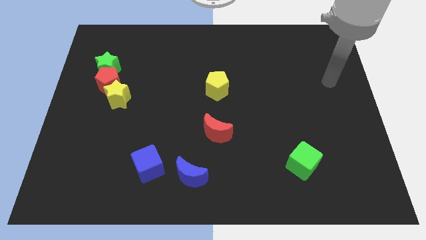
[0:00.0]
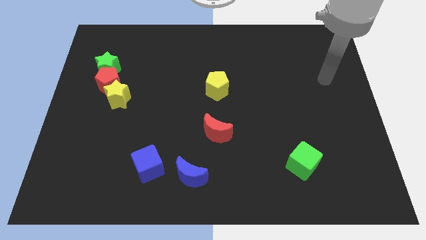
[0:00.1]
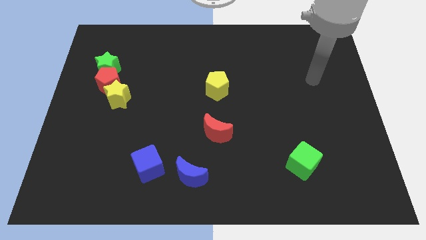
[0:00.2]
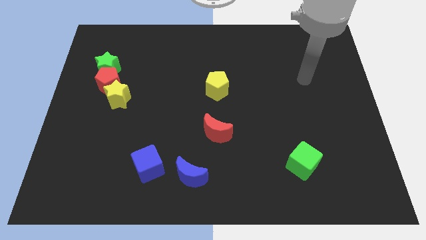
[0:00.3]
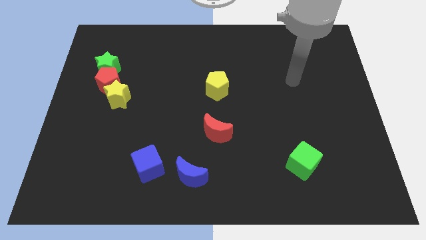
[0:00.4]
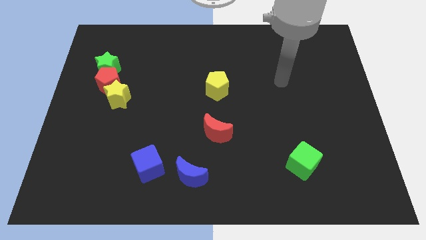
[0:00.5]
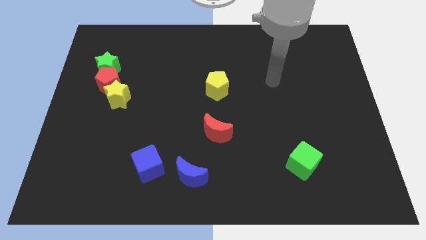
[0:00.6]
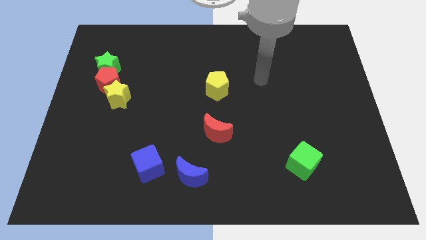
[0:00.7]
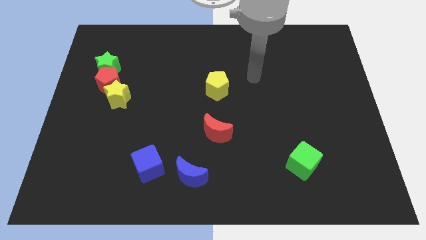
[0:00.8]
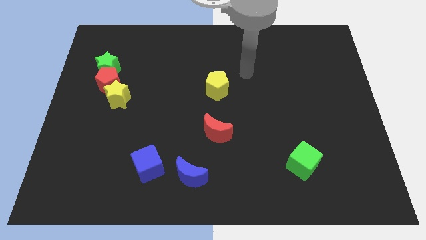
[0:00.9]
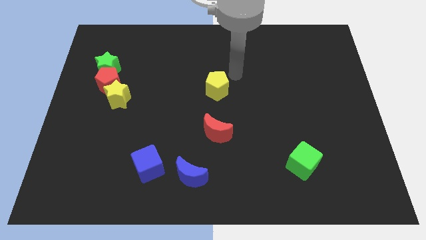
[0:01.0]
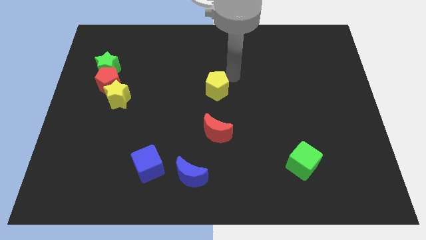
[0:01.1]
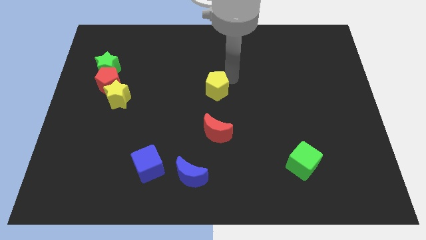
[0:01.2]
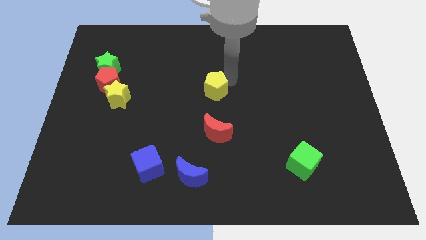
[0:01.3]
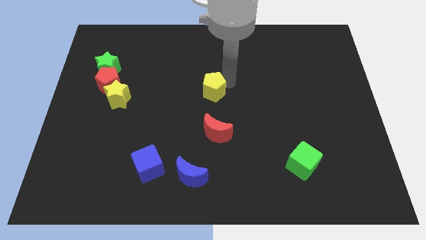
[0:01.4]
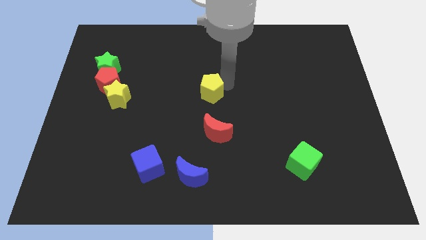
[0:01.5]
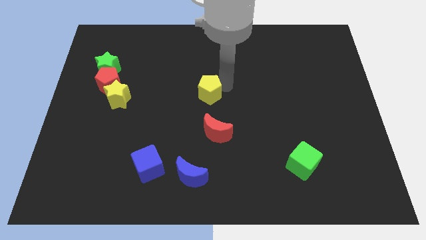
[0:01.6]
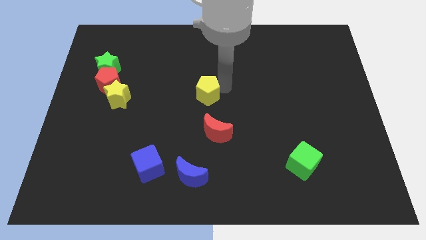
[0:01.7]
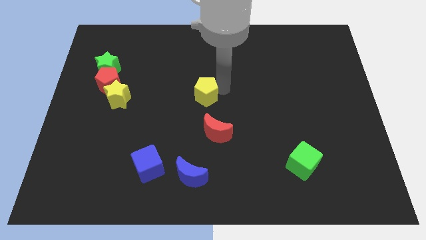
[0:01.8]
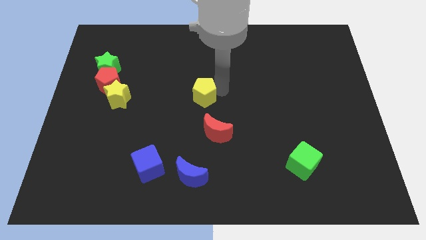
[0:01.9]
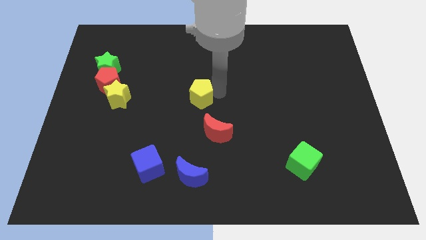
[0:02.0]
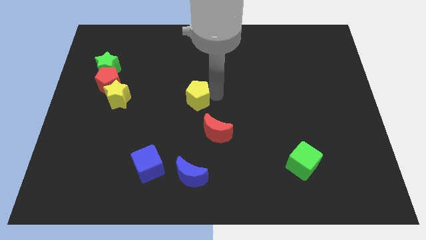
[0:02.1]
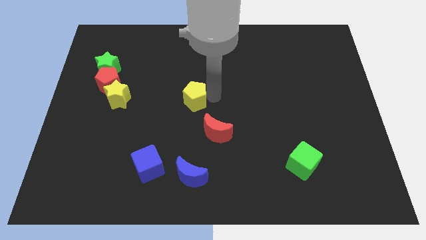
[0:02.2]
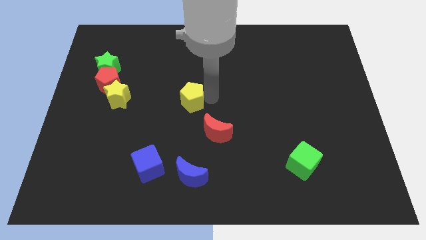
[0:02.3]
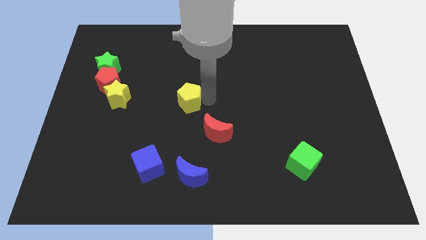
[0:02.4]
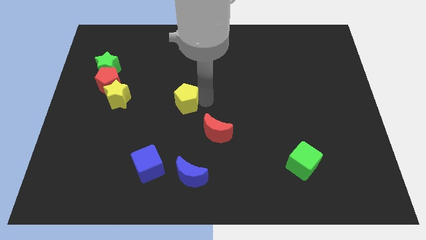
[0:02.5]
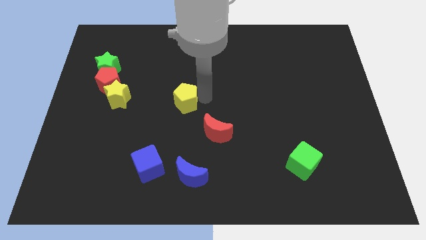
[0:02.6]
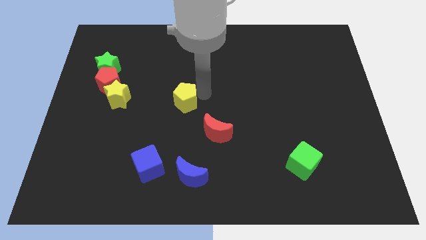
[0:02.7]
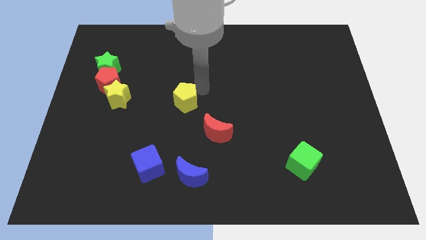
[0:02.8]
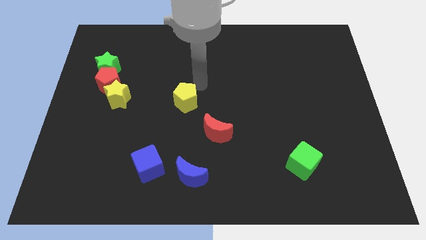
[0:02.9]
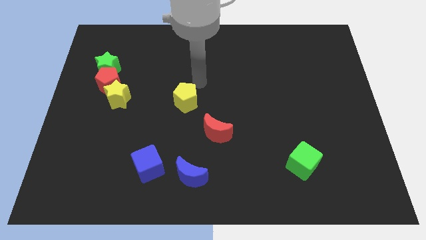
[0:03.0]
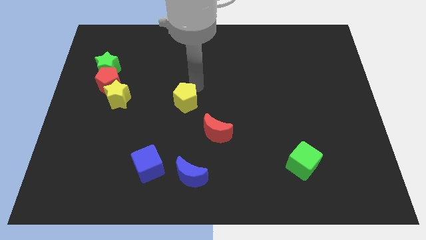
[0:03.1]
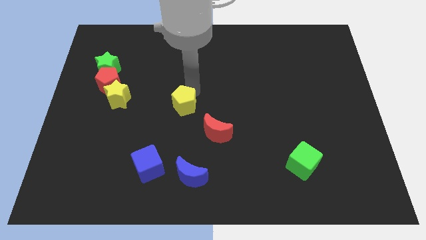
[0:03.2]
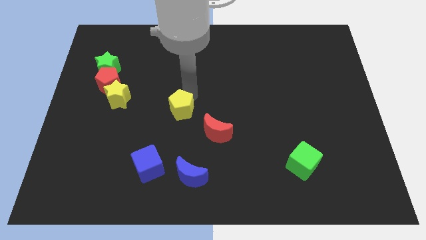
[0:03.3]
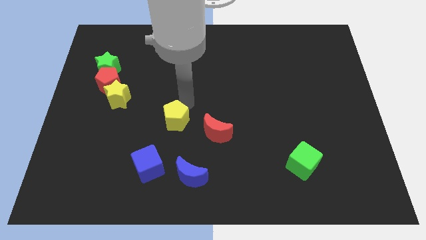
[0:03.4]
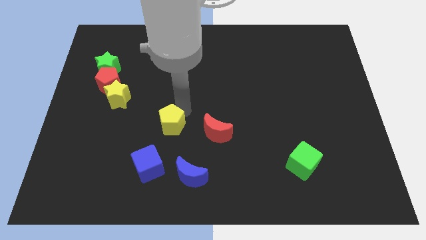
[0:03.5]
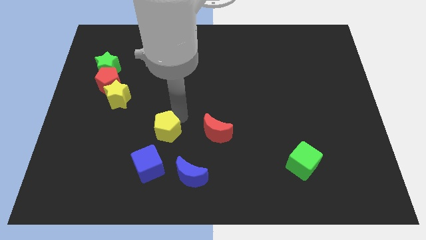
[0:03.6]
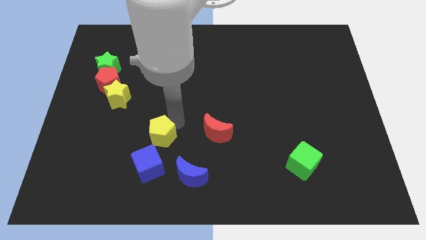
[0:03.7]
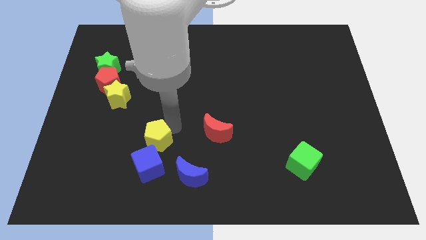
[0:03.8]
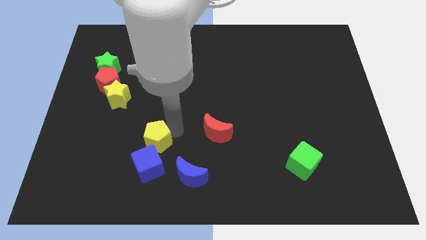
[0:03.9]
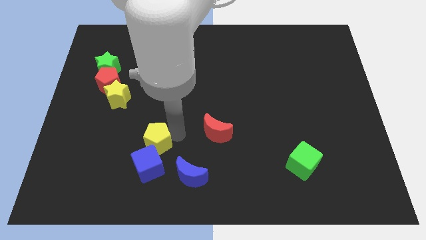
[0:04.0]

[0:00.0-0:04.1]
slide the yellow pentagon diagonally down and left

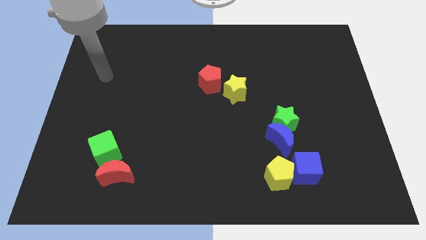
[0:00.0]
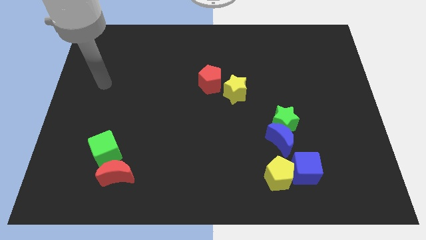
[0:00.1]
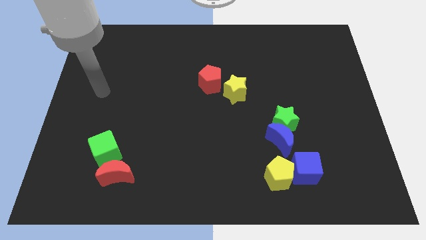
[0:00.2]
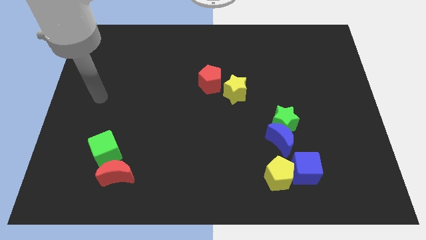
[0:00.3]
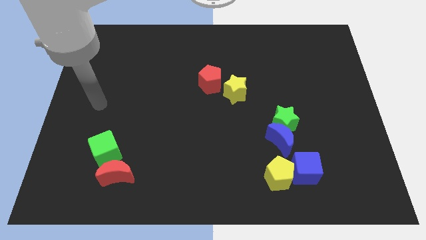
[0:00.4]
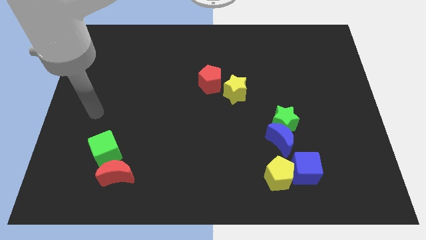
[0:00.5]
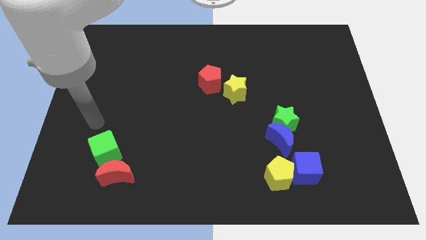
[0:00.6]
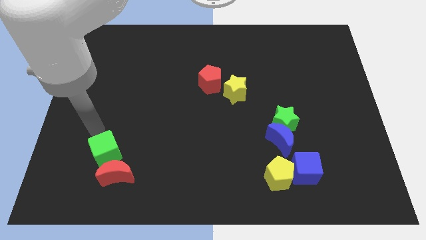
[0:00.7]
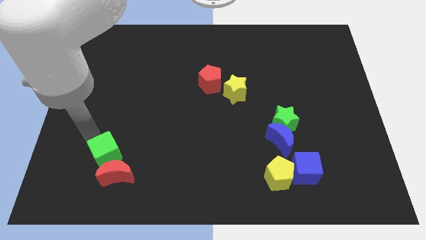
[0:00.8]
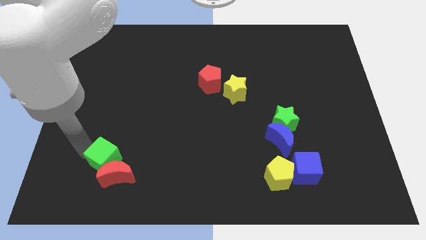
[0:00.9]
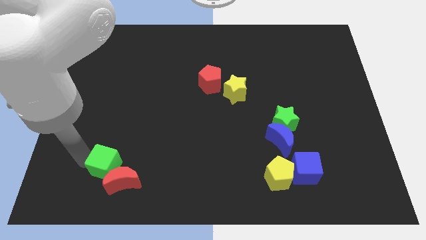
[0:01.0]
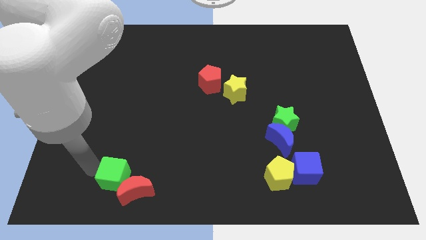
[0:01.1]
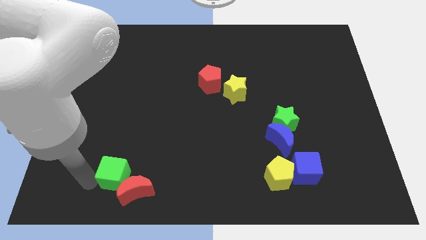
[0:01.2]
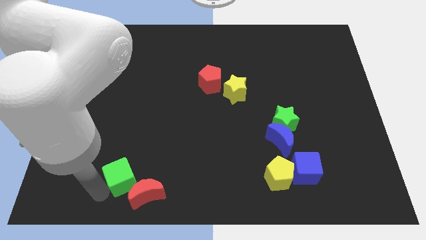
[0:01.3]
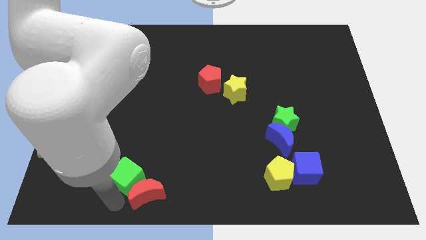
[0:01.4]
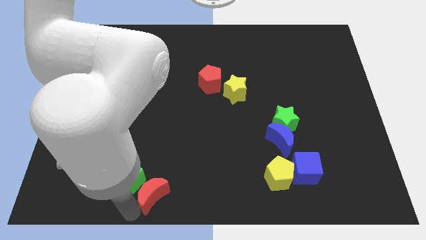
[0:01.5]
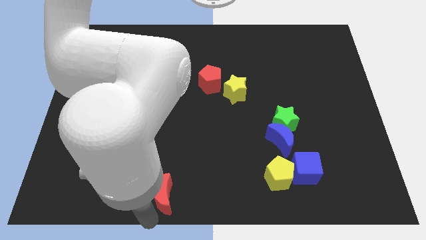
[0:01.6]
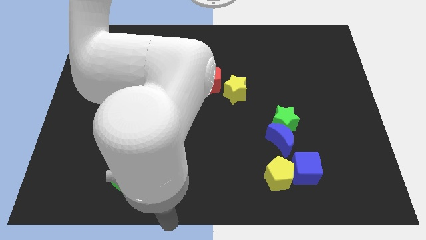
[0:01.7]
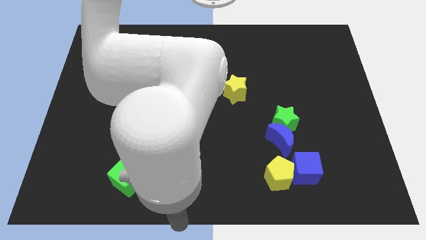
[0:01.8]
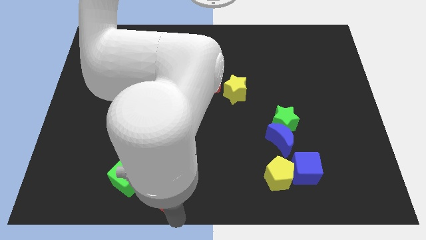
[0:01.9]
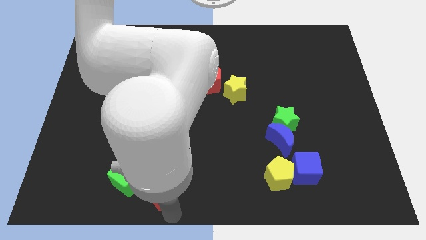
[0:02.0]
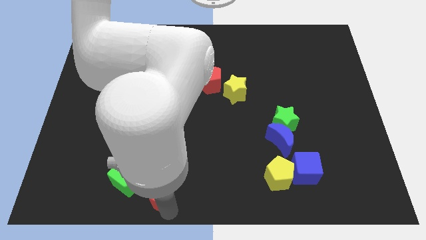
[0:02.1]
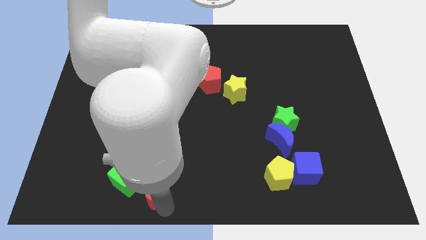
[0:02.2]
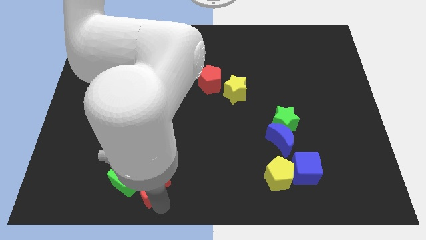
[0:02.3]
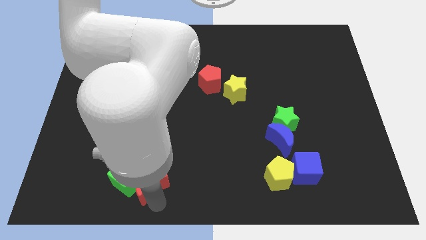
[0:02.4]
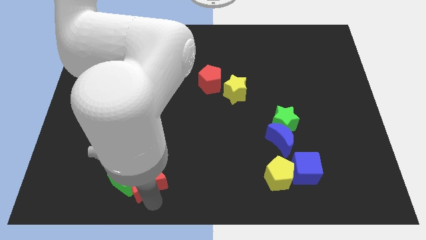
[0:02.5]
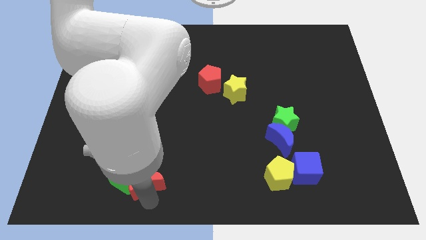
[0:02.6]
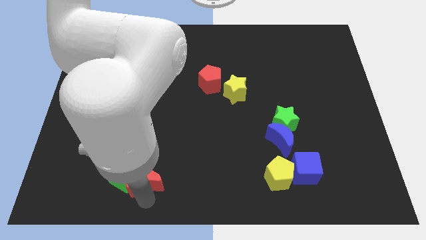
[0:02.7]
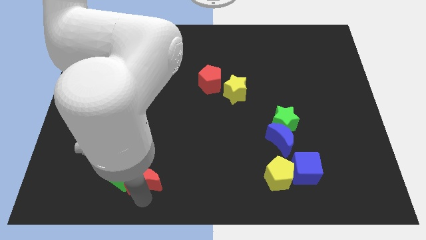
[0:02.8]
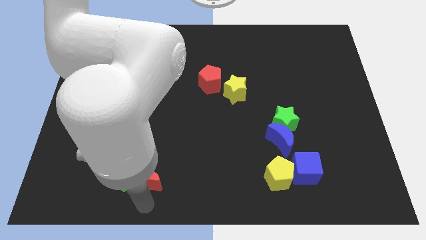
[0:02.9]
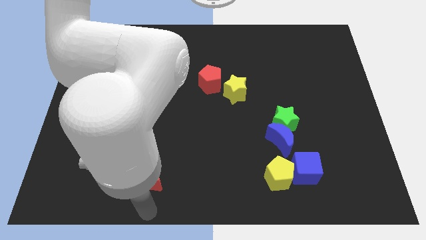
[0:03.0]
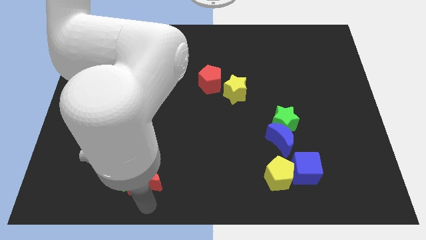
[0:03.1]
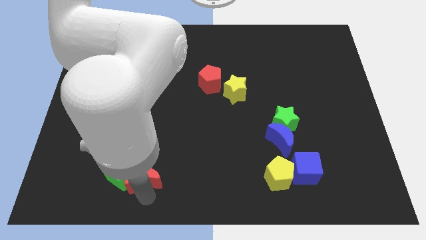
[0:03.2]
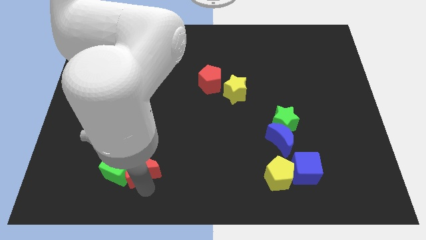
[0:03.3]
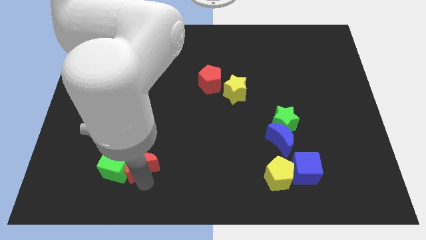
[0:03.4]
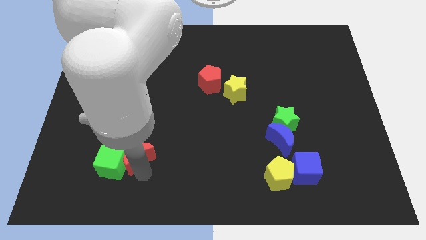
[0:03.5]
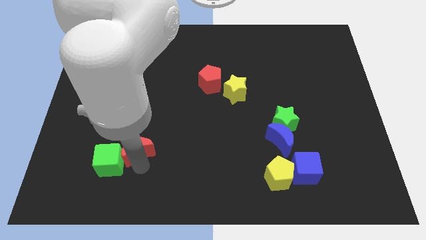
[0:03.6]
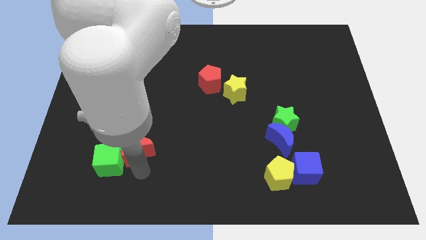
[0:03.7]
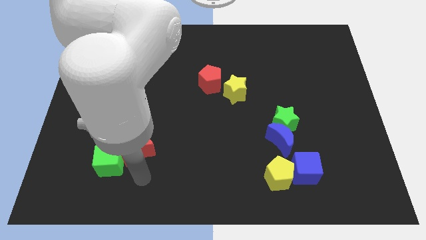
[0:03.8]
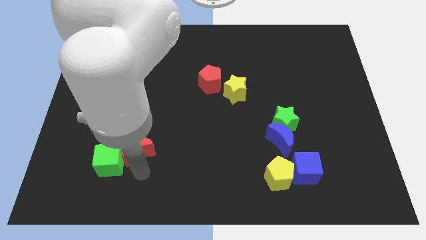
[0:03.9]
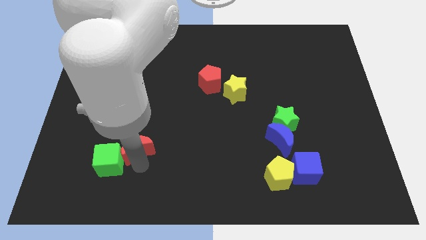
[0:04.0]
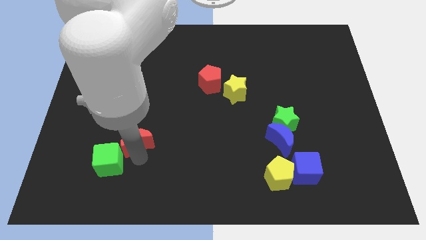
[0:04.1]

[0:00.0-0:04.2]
slide the red moon slightly upwards

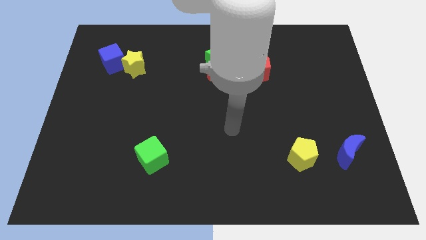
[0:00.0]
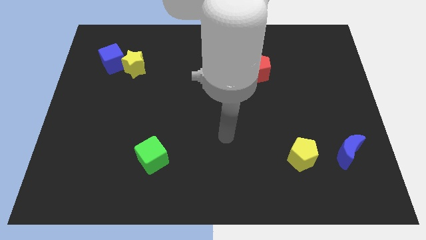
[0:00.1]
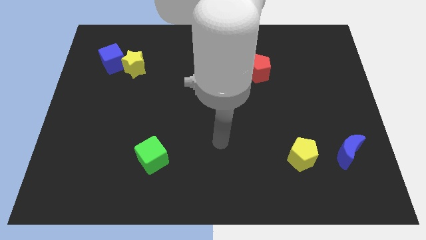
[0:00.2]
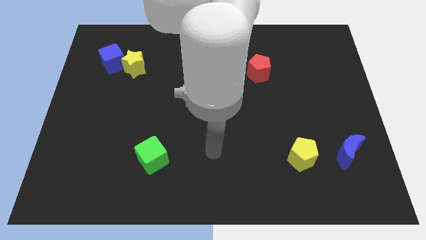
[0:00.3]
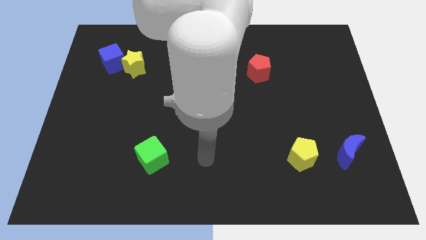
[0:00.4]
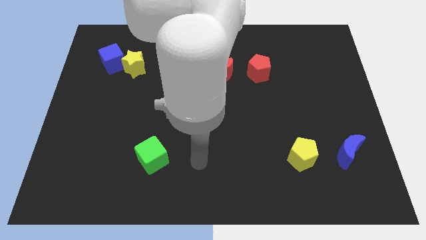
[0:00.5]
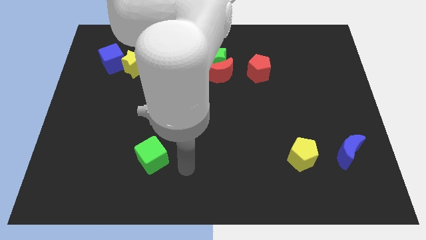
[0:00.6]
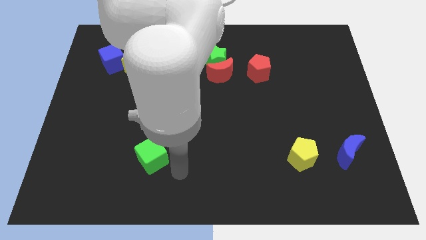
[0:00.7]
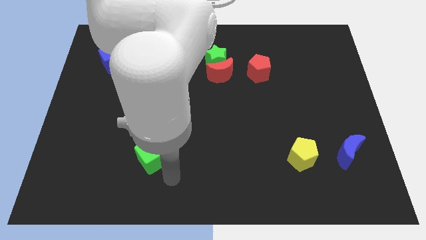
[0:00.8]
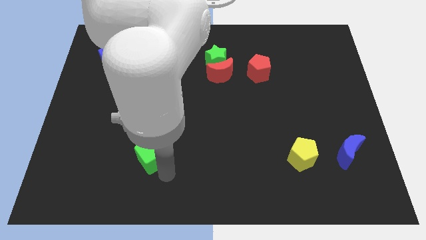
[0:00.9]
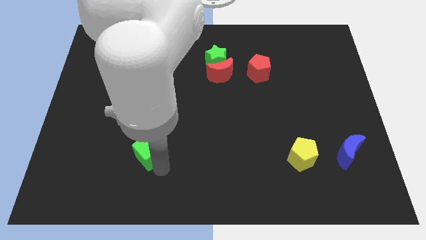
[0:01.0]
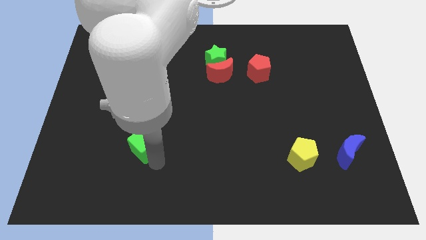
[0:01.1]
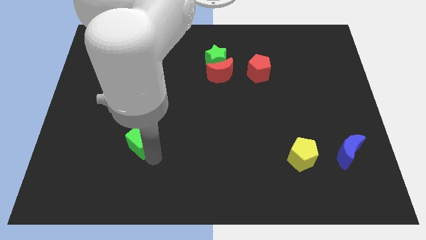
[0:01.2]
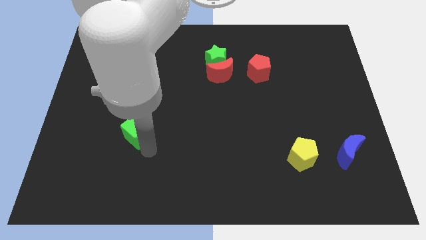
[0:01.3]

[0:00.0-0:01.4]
slightly slide the green cube upwards and left diagonally
